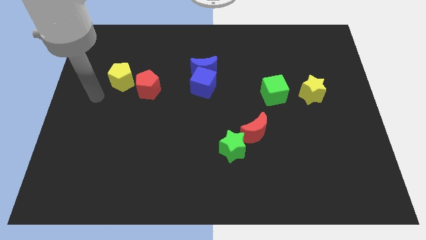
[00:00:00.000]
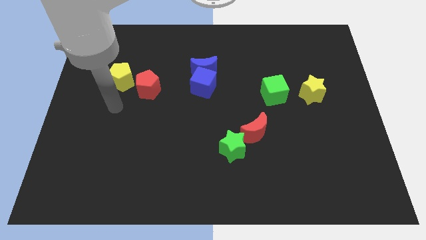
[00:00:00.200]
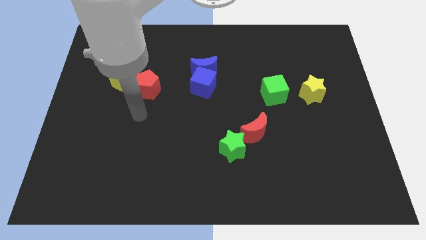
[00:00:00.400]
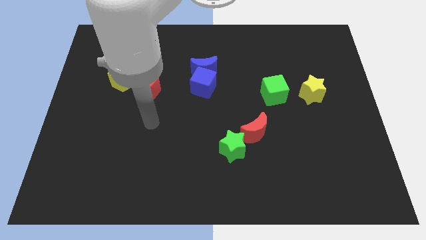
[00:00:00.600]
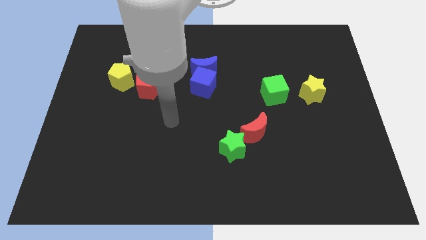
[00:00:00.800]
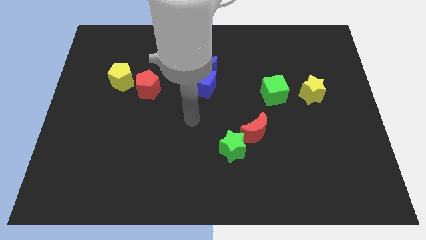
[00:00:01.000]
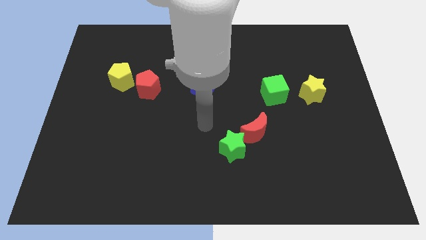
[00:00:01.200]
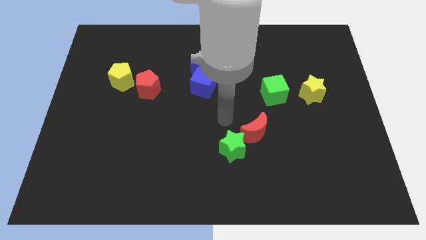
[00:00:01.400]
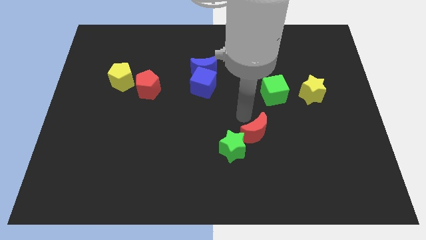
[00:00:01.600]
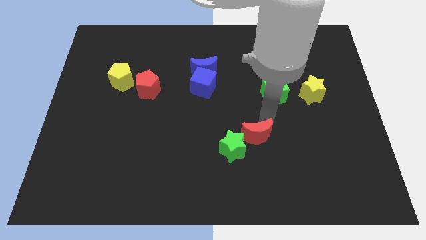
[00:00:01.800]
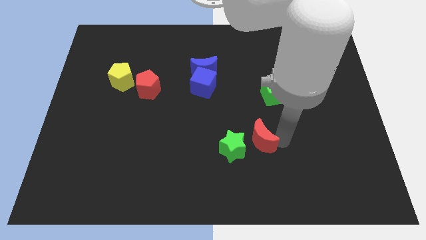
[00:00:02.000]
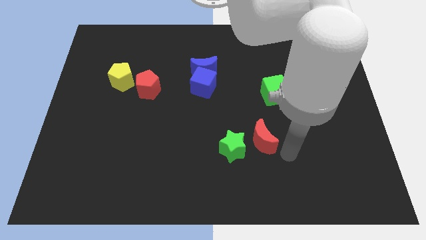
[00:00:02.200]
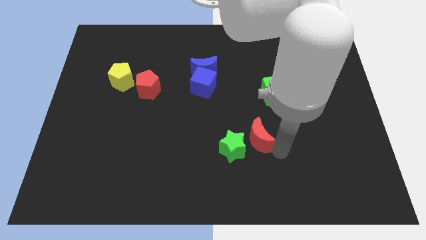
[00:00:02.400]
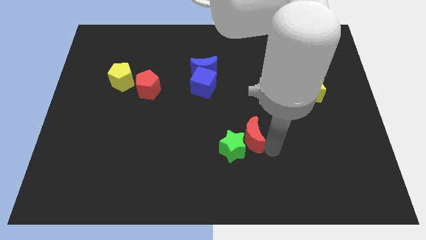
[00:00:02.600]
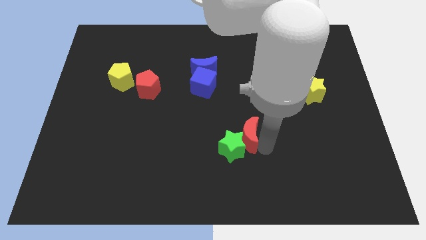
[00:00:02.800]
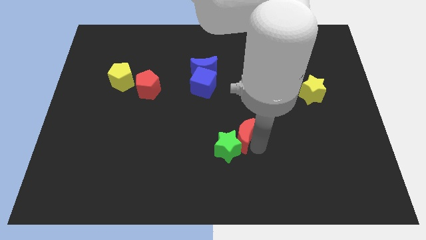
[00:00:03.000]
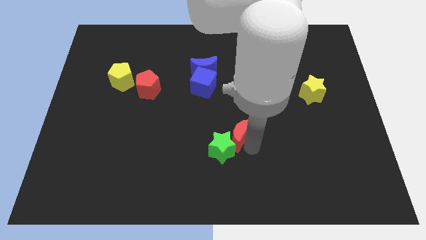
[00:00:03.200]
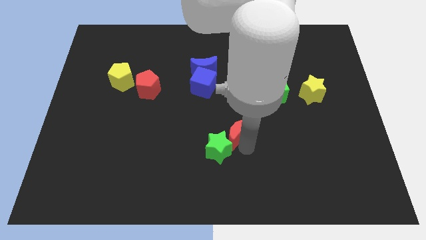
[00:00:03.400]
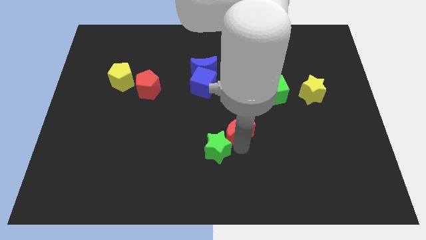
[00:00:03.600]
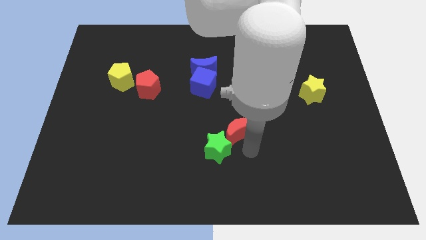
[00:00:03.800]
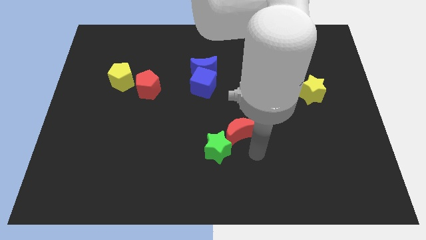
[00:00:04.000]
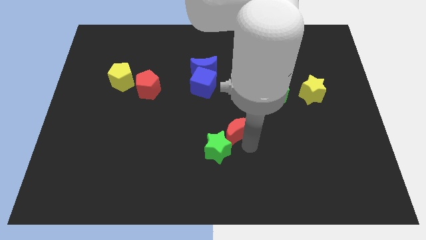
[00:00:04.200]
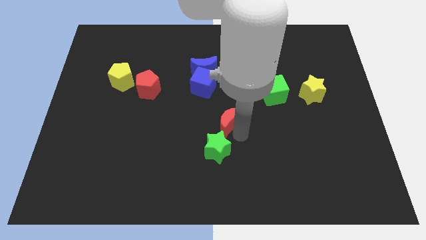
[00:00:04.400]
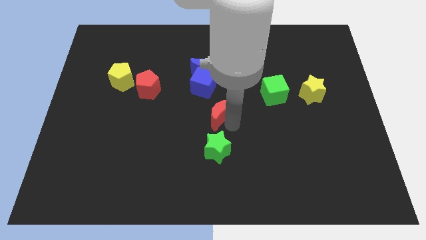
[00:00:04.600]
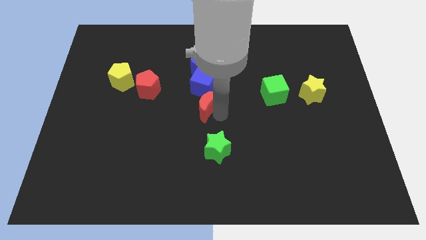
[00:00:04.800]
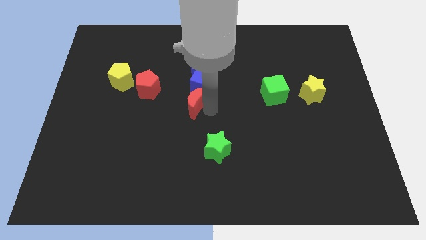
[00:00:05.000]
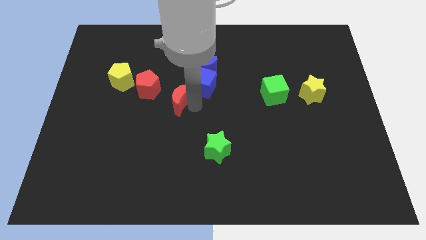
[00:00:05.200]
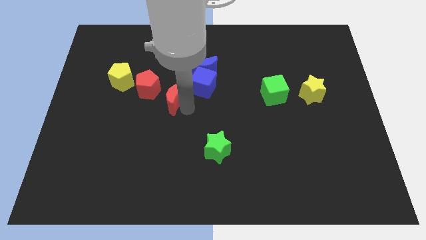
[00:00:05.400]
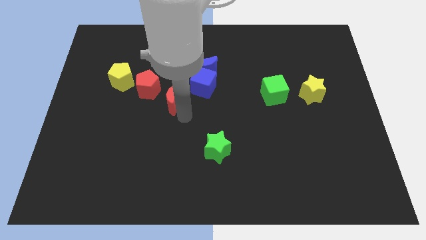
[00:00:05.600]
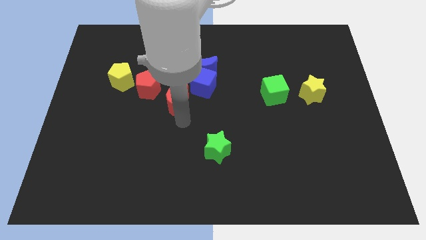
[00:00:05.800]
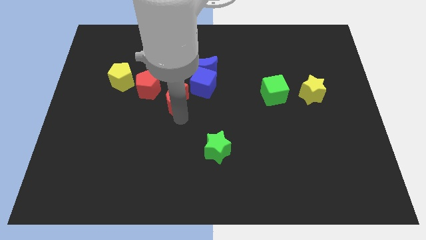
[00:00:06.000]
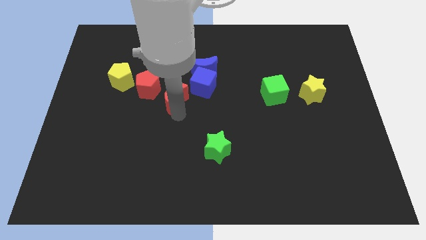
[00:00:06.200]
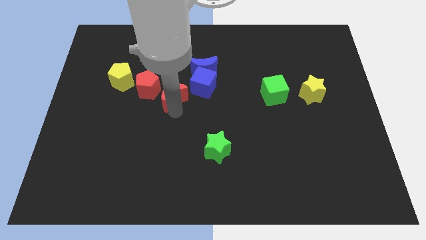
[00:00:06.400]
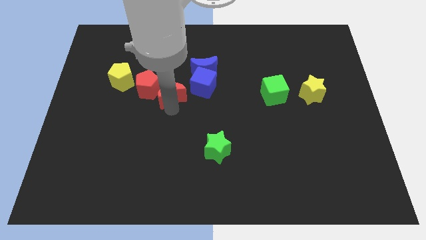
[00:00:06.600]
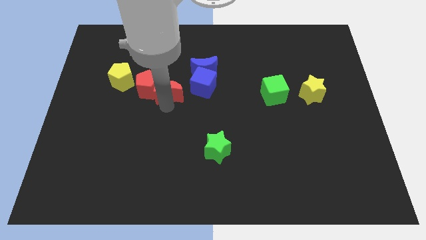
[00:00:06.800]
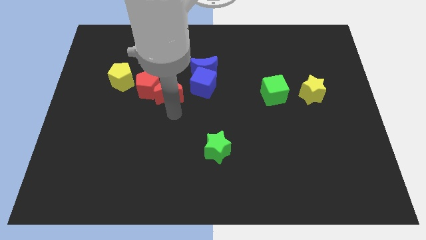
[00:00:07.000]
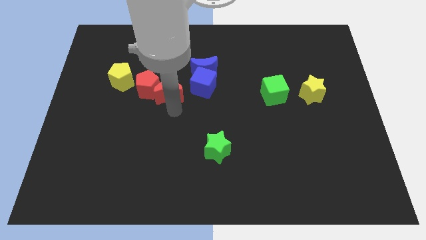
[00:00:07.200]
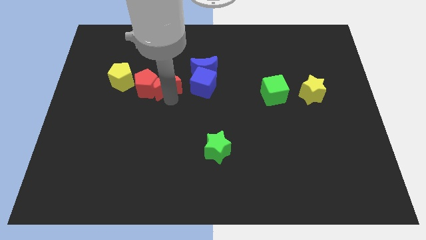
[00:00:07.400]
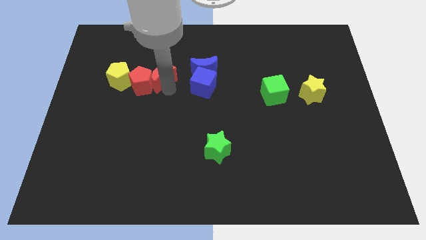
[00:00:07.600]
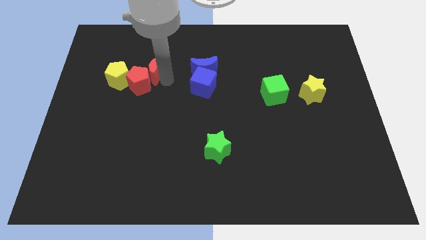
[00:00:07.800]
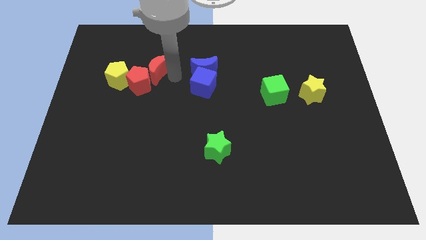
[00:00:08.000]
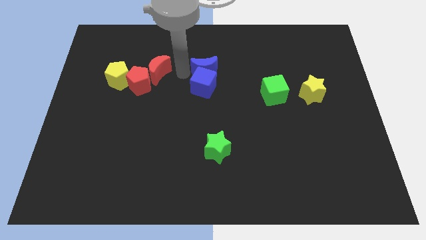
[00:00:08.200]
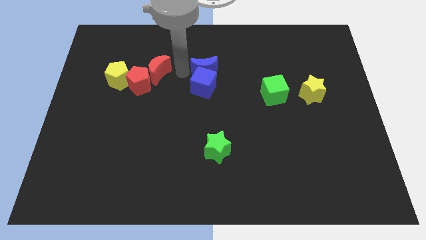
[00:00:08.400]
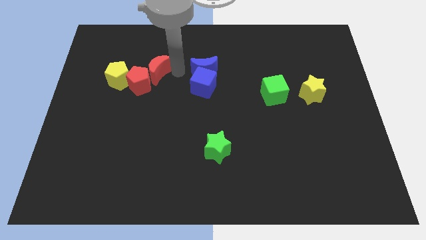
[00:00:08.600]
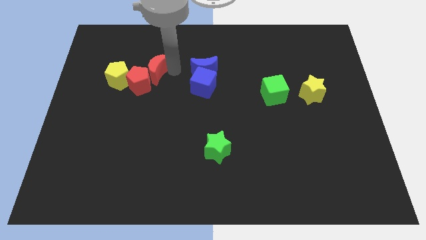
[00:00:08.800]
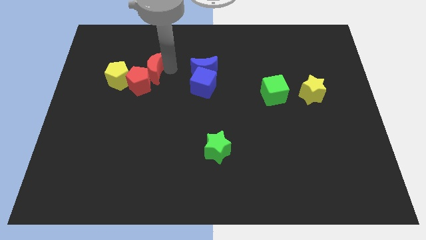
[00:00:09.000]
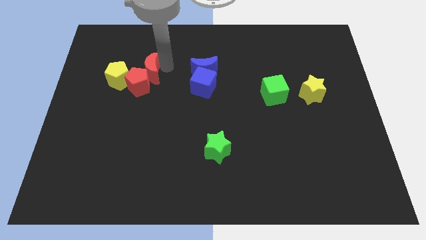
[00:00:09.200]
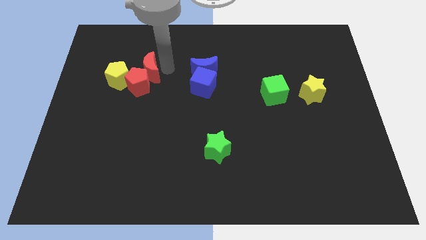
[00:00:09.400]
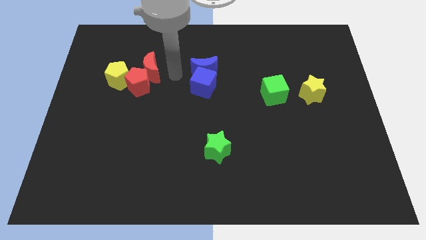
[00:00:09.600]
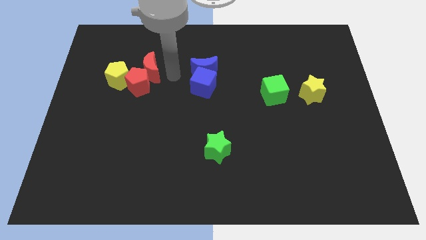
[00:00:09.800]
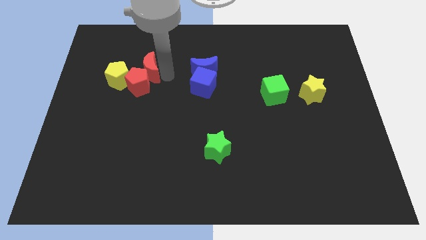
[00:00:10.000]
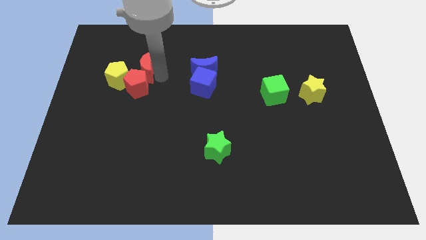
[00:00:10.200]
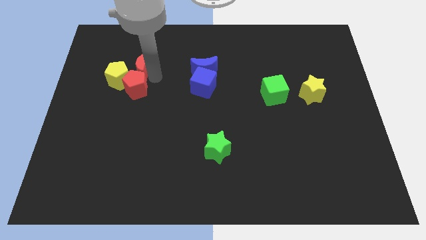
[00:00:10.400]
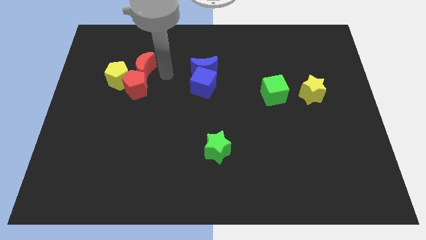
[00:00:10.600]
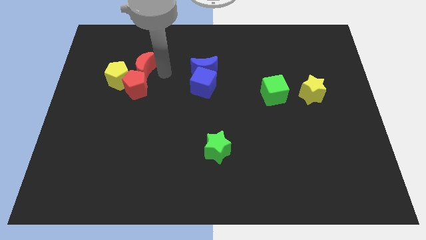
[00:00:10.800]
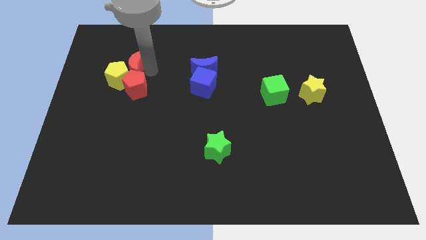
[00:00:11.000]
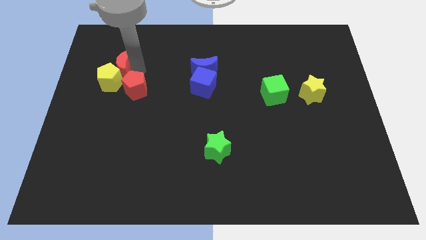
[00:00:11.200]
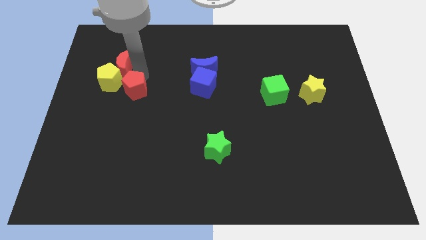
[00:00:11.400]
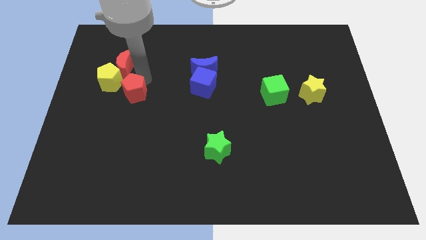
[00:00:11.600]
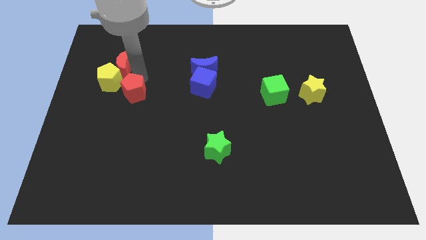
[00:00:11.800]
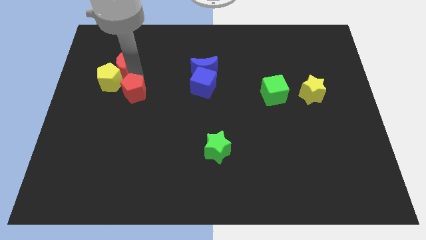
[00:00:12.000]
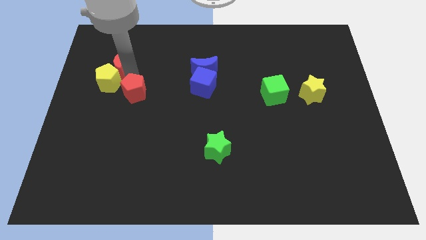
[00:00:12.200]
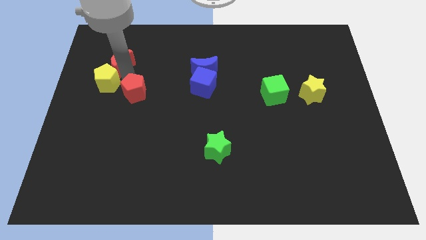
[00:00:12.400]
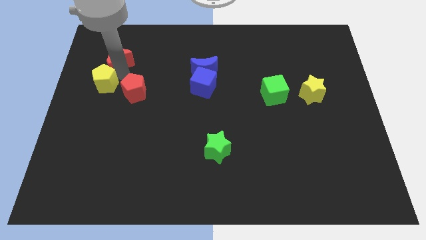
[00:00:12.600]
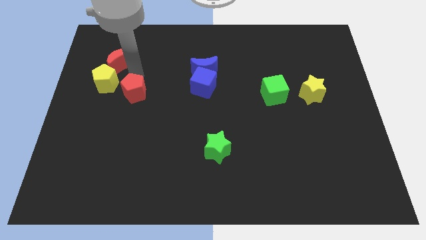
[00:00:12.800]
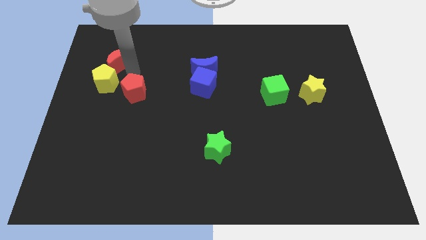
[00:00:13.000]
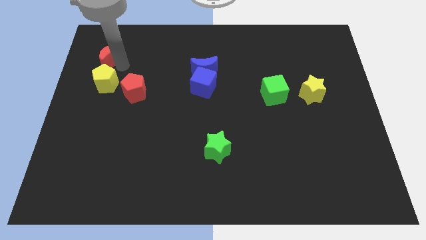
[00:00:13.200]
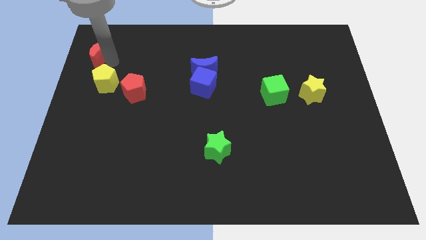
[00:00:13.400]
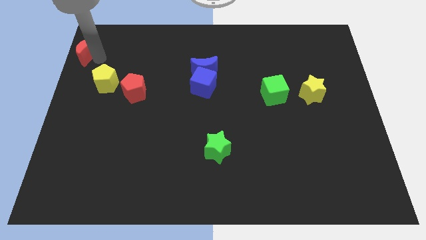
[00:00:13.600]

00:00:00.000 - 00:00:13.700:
push the red moon to the upper left corner

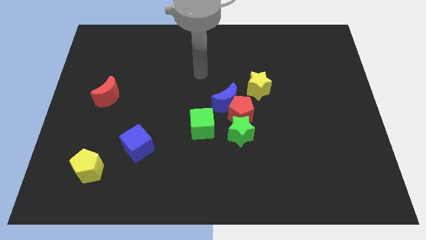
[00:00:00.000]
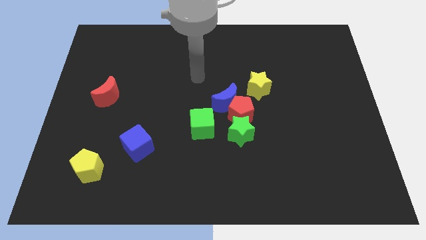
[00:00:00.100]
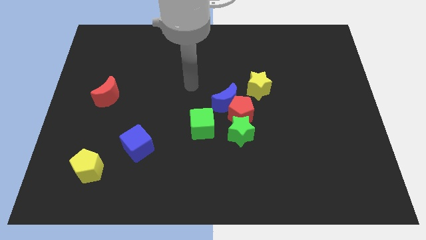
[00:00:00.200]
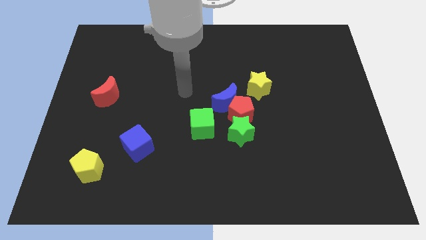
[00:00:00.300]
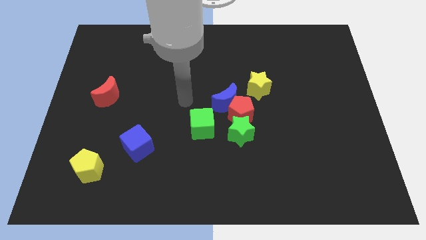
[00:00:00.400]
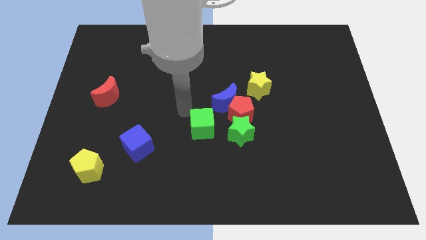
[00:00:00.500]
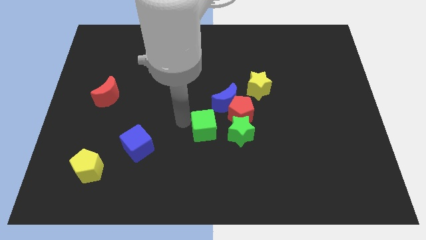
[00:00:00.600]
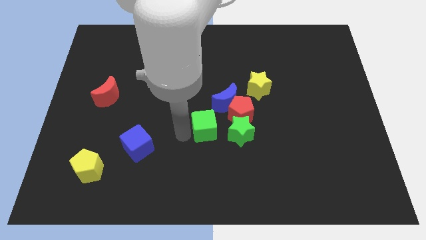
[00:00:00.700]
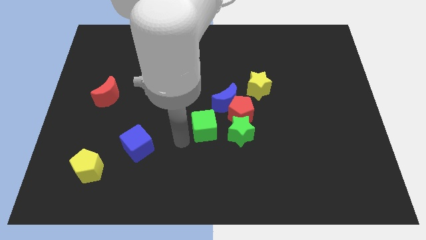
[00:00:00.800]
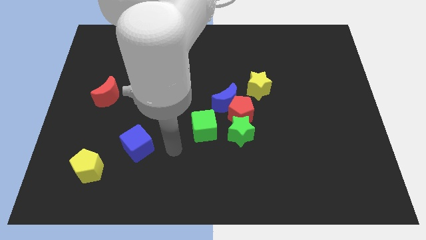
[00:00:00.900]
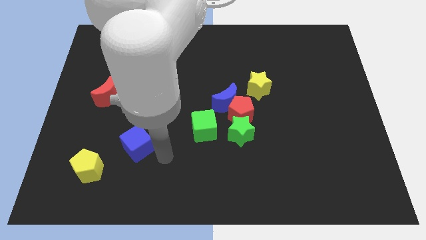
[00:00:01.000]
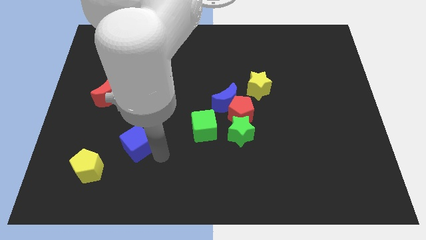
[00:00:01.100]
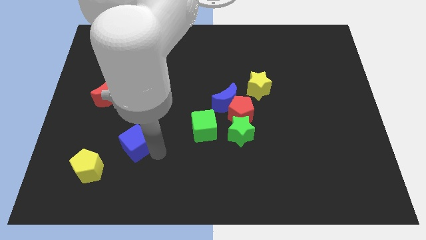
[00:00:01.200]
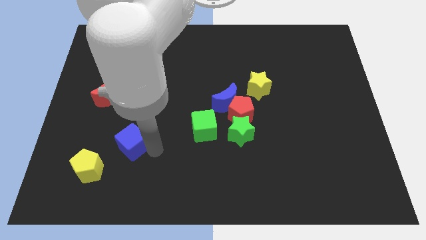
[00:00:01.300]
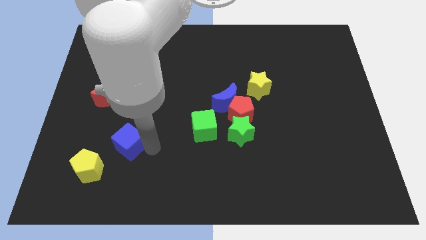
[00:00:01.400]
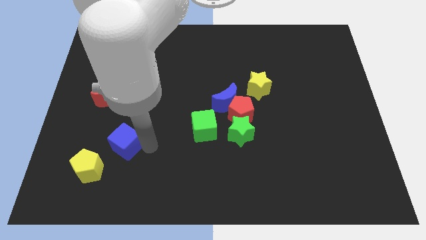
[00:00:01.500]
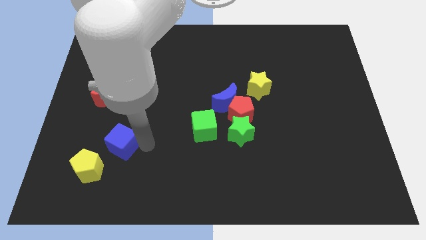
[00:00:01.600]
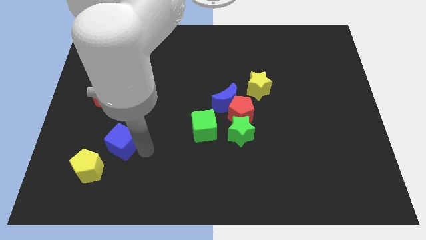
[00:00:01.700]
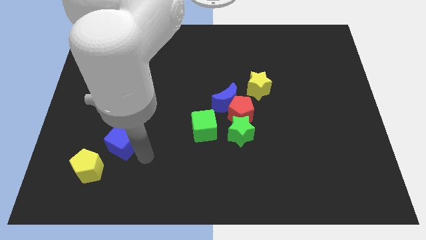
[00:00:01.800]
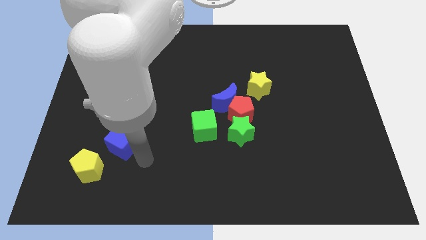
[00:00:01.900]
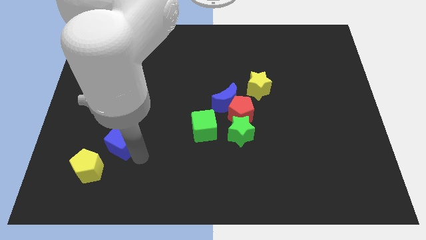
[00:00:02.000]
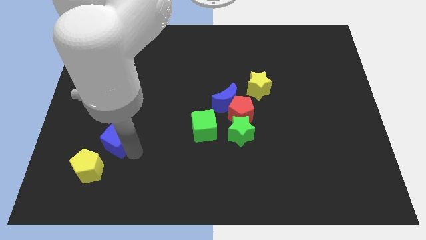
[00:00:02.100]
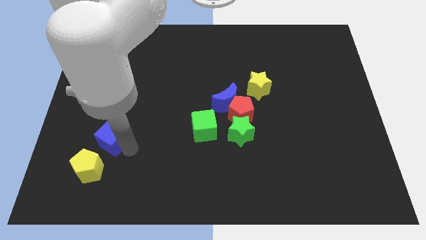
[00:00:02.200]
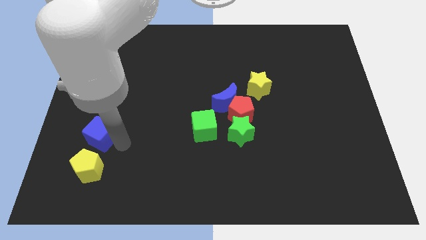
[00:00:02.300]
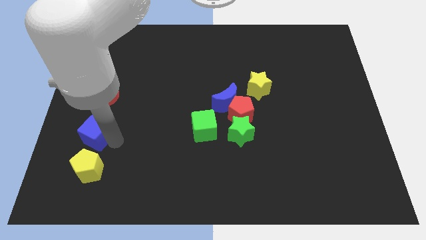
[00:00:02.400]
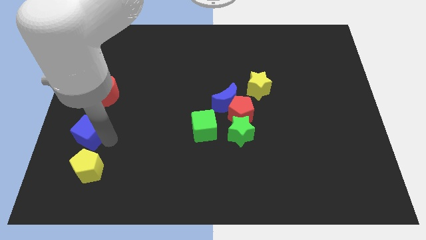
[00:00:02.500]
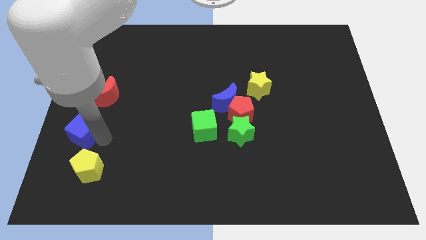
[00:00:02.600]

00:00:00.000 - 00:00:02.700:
move the blue cube to the left side
